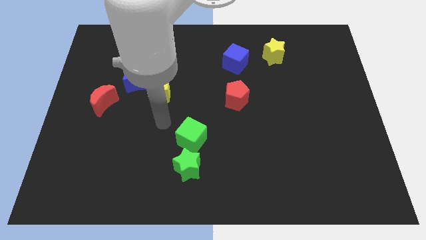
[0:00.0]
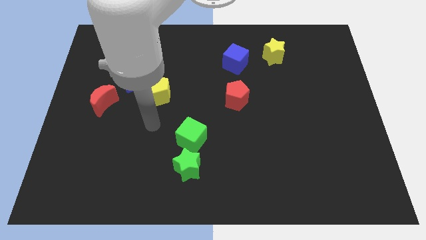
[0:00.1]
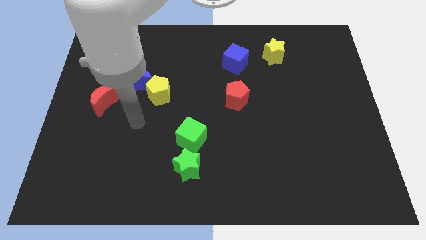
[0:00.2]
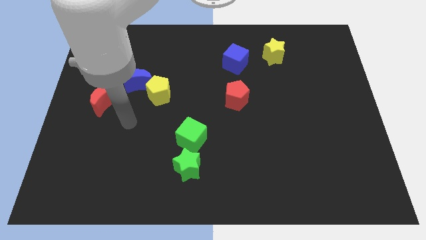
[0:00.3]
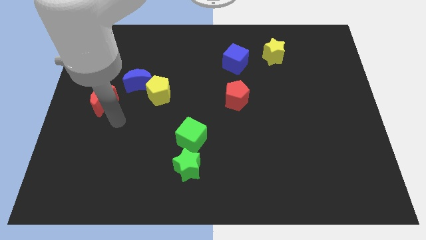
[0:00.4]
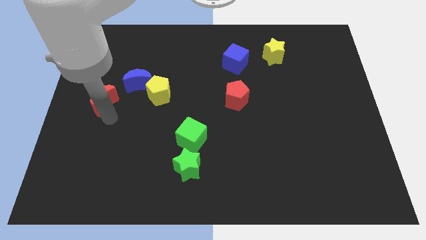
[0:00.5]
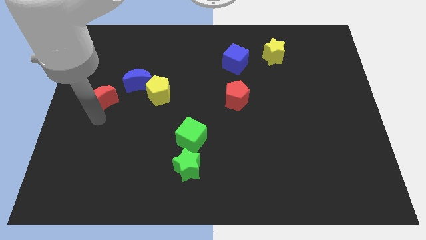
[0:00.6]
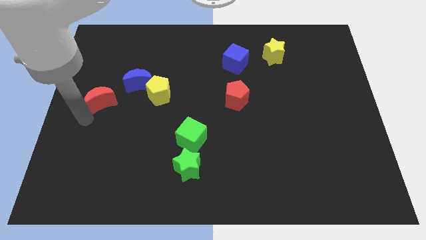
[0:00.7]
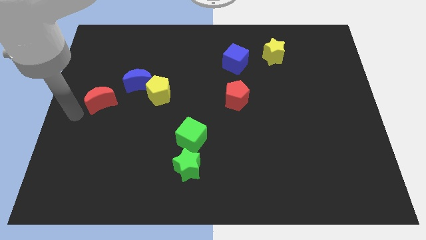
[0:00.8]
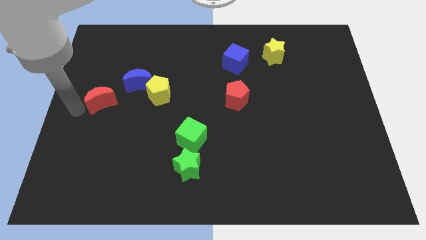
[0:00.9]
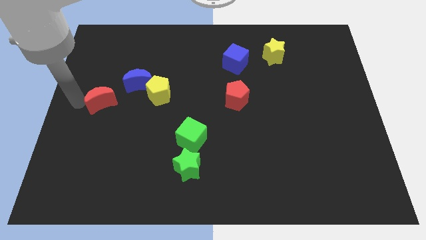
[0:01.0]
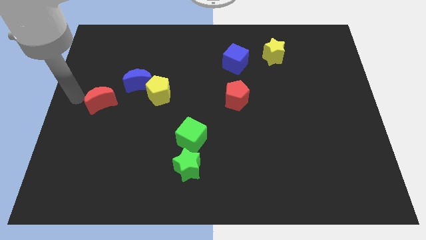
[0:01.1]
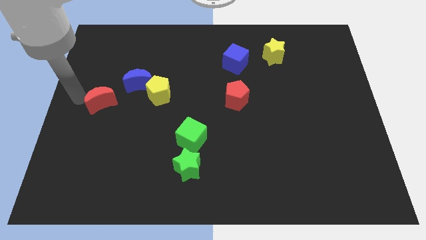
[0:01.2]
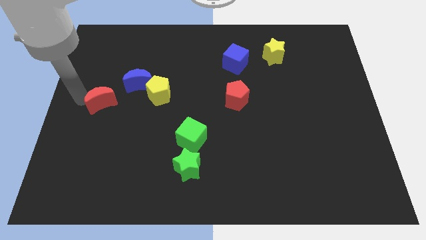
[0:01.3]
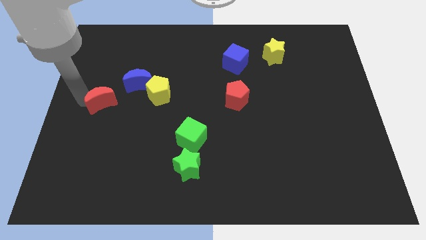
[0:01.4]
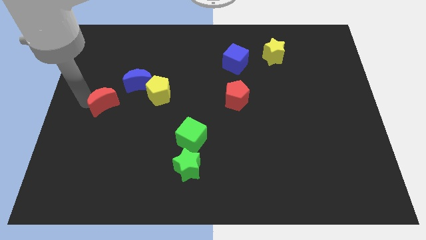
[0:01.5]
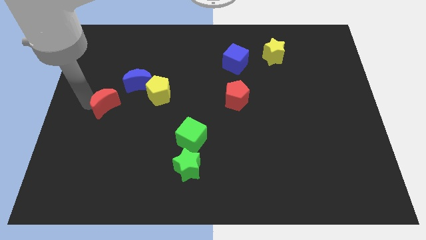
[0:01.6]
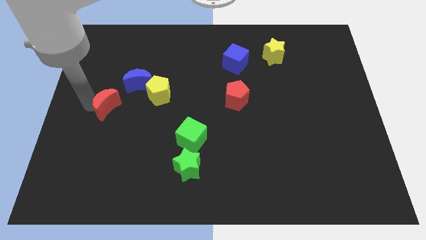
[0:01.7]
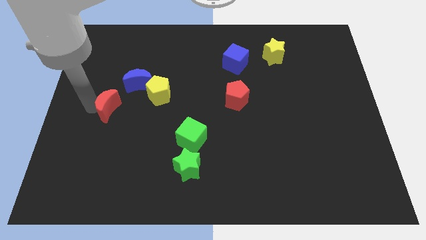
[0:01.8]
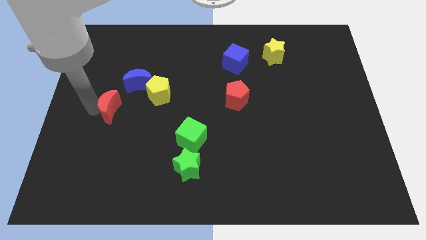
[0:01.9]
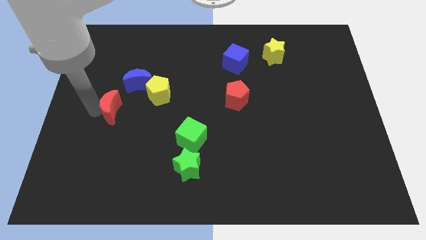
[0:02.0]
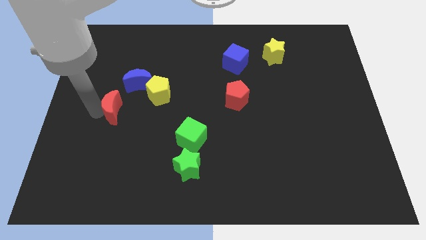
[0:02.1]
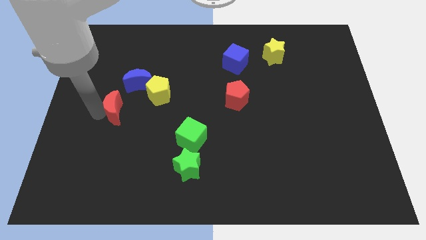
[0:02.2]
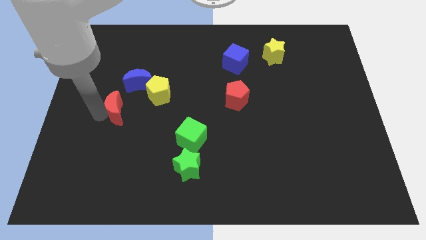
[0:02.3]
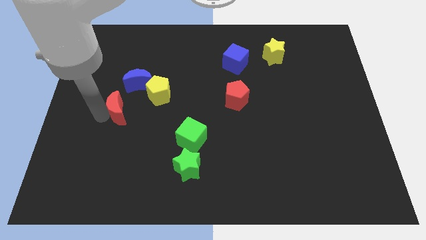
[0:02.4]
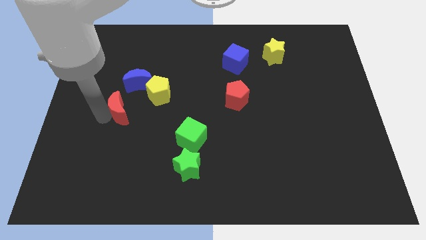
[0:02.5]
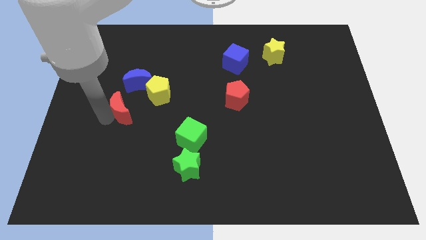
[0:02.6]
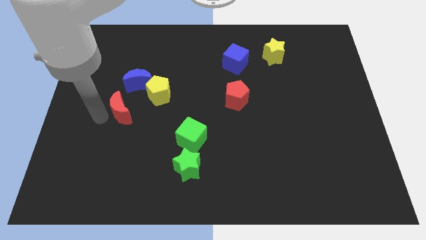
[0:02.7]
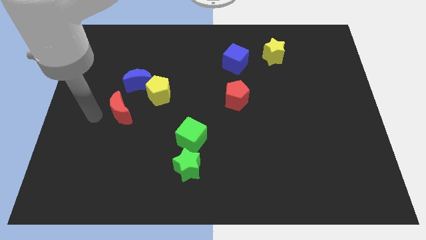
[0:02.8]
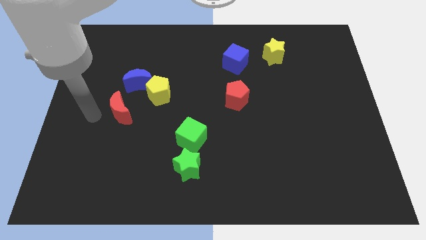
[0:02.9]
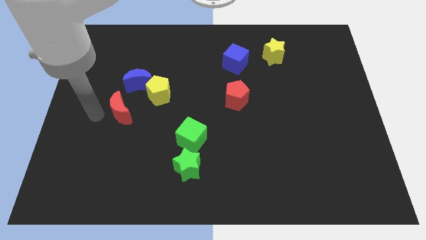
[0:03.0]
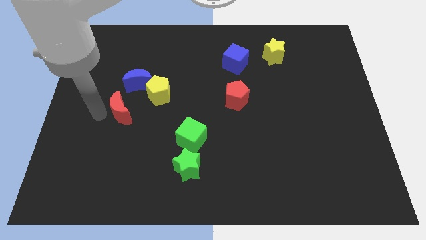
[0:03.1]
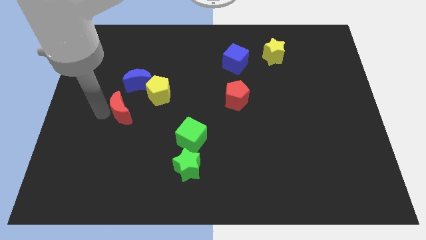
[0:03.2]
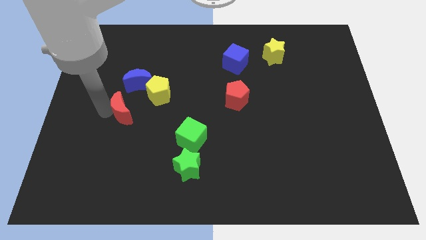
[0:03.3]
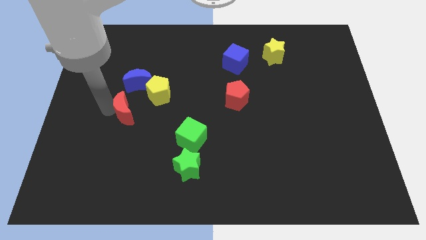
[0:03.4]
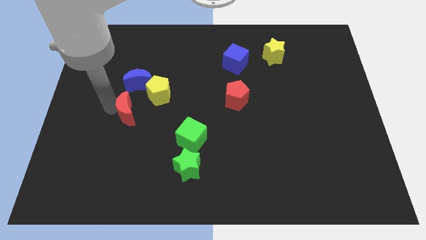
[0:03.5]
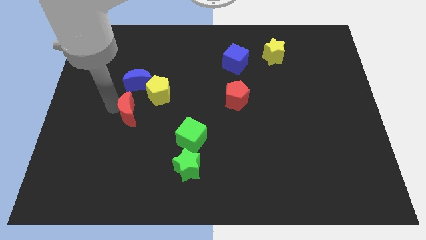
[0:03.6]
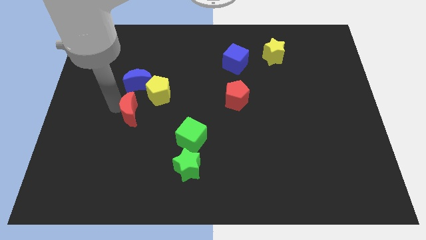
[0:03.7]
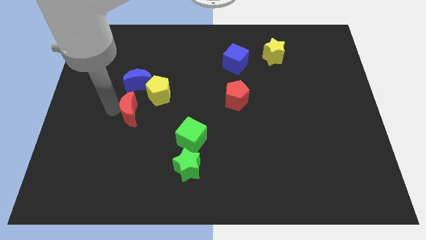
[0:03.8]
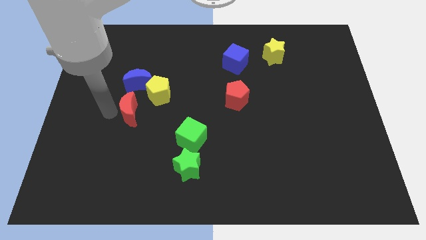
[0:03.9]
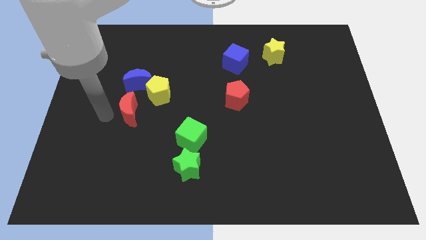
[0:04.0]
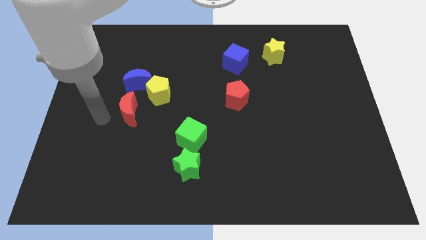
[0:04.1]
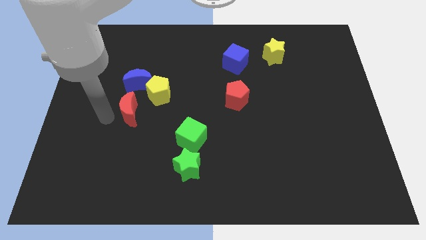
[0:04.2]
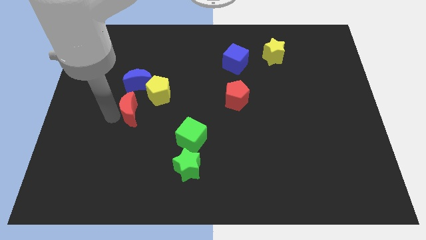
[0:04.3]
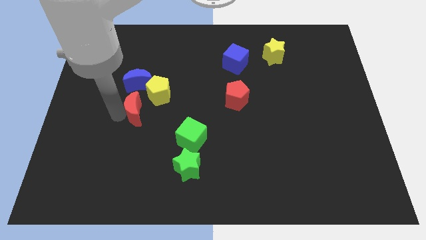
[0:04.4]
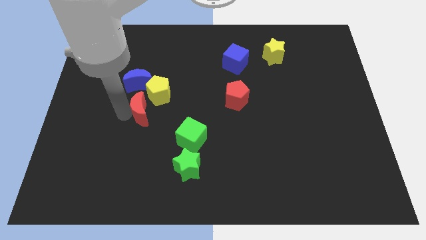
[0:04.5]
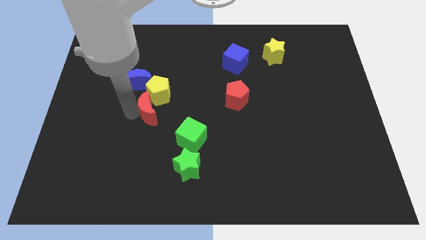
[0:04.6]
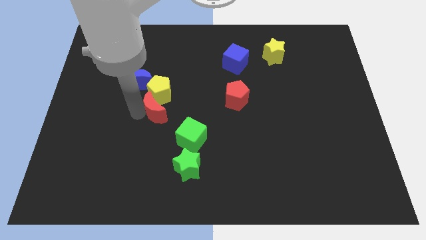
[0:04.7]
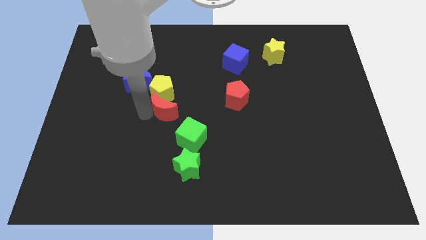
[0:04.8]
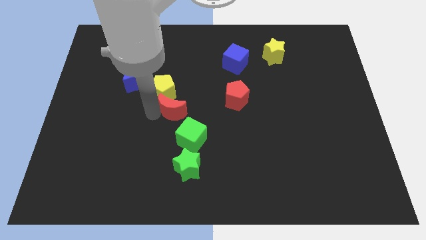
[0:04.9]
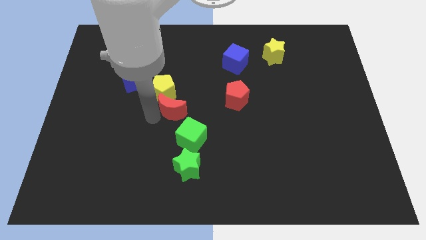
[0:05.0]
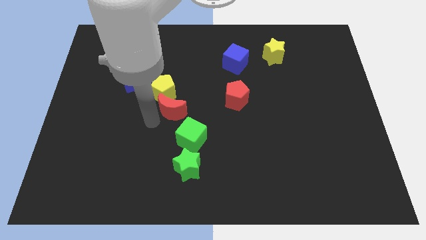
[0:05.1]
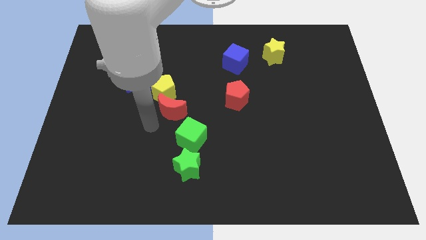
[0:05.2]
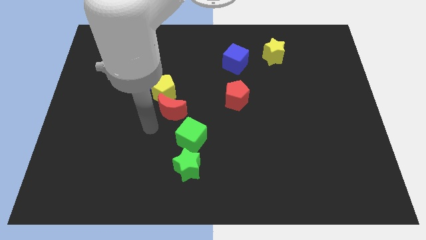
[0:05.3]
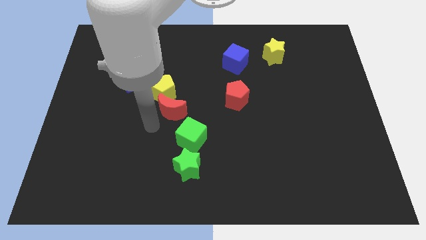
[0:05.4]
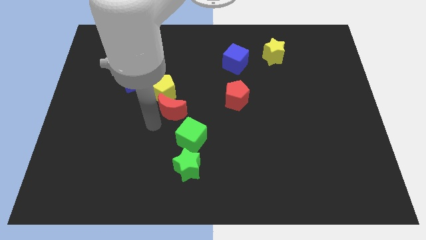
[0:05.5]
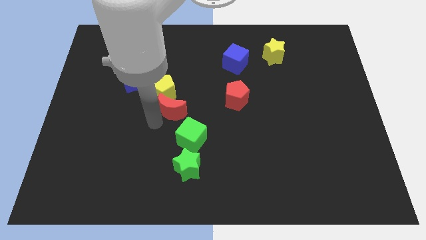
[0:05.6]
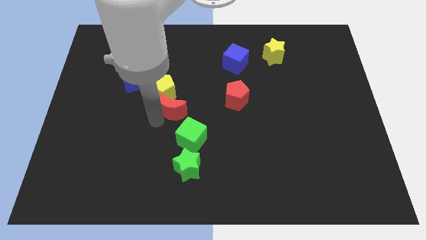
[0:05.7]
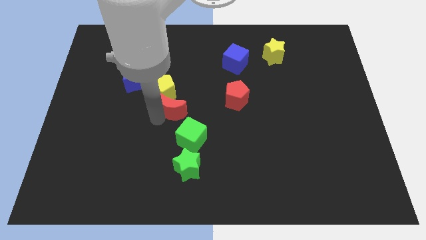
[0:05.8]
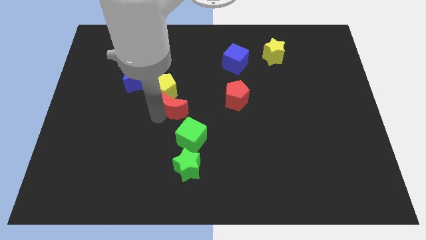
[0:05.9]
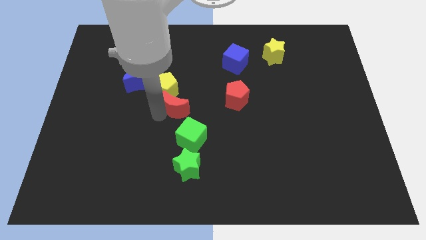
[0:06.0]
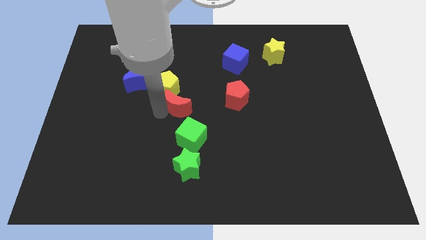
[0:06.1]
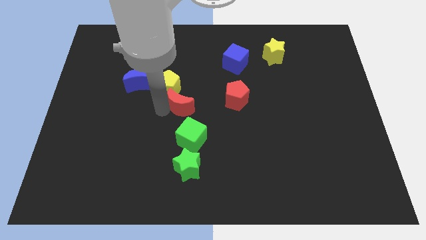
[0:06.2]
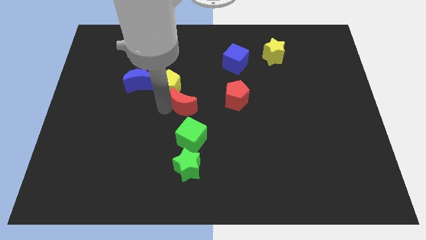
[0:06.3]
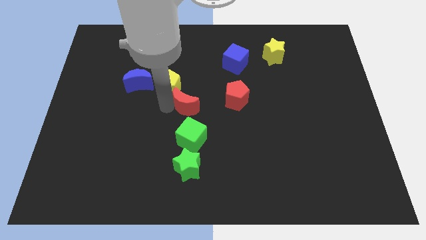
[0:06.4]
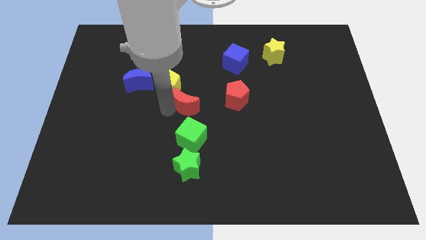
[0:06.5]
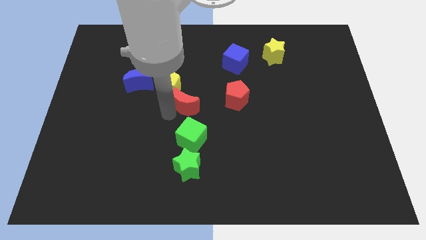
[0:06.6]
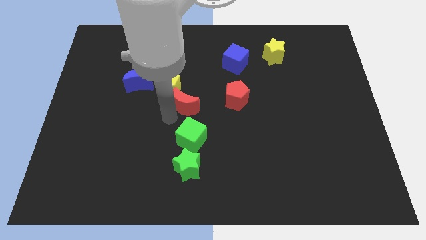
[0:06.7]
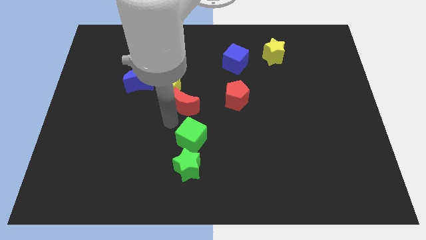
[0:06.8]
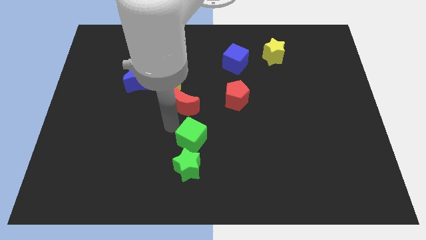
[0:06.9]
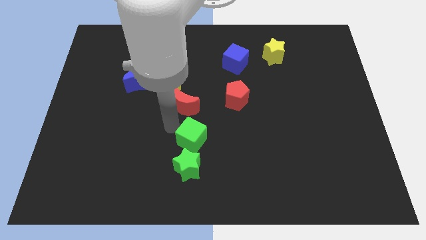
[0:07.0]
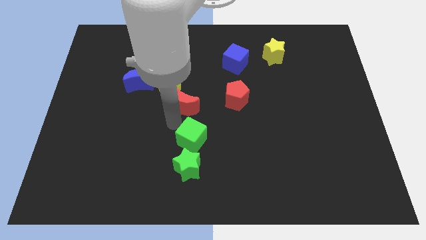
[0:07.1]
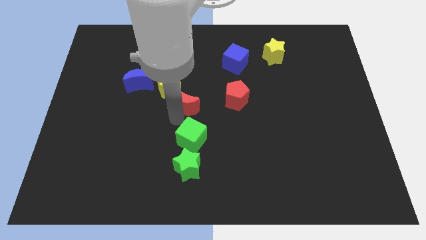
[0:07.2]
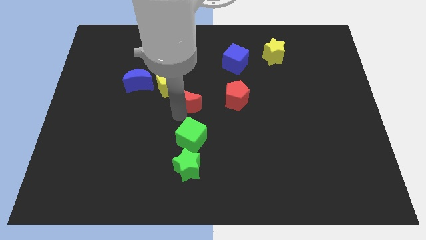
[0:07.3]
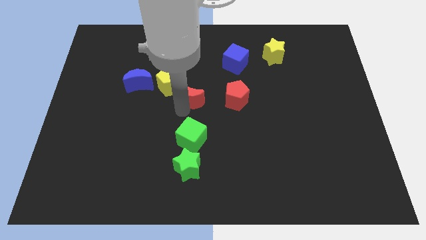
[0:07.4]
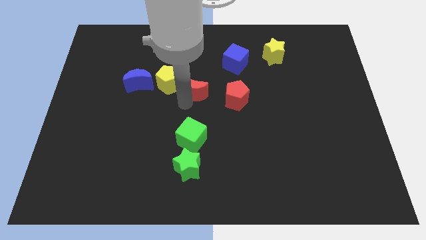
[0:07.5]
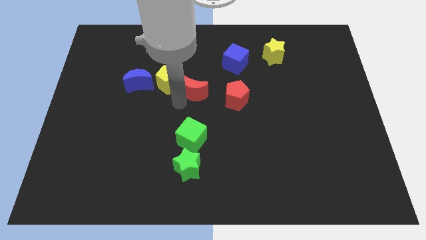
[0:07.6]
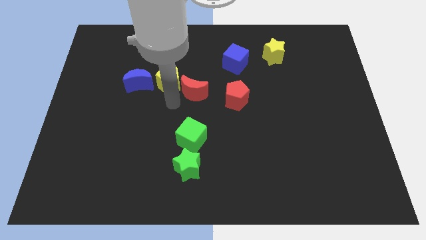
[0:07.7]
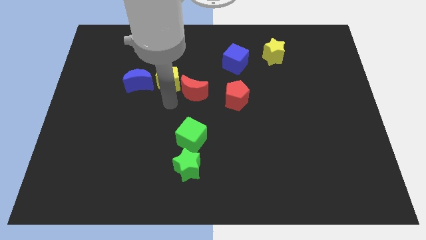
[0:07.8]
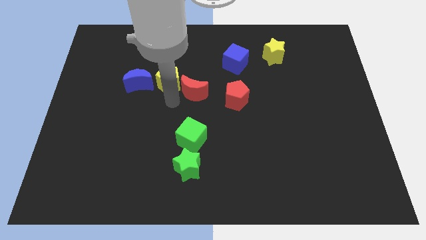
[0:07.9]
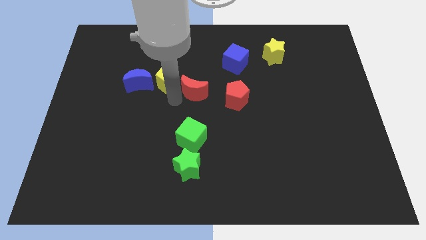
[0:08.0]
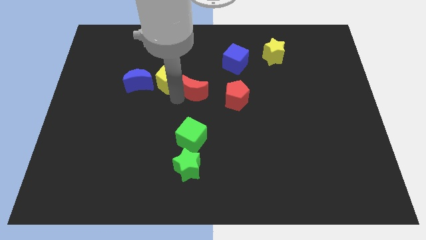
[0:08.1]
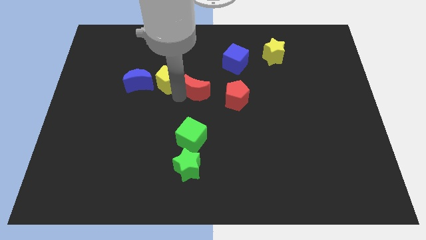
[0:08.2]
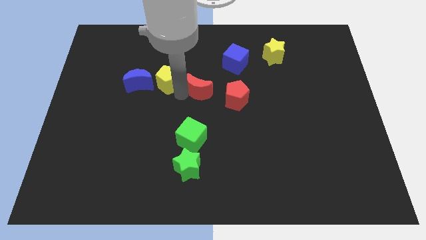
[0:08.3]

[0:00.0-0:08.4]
put the red moon diagonally up and to the left of the red pentagon
